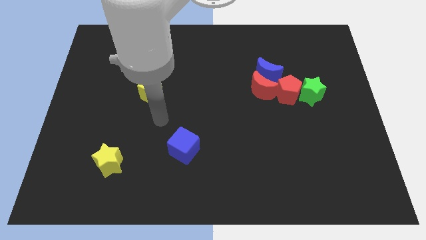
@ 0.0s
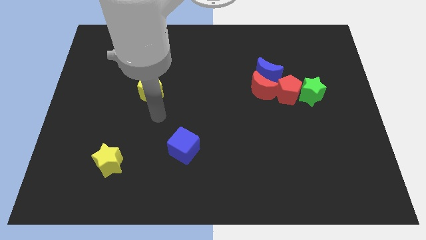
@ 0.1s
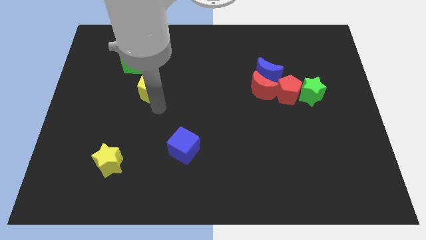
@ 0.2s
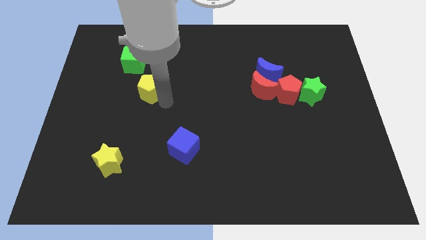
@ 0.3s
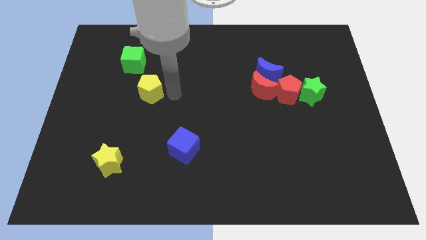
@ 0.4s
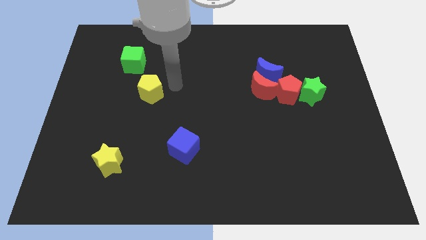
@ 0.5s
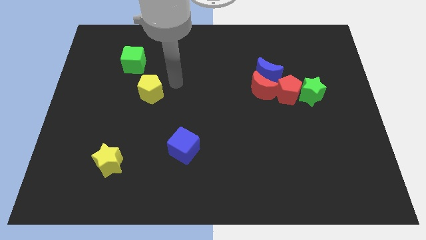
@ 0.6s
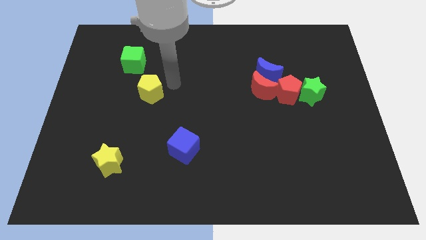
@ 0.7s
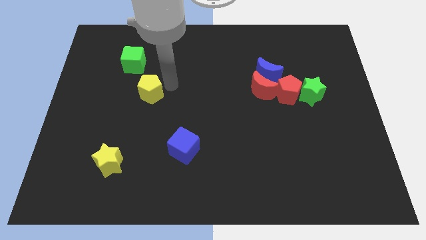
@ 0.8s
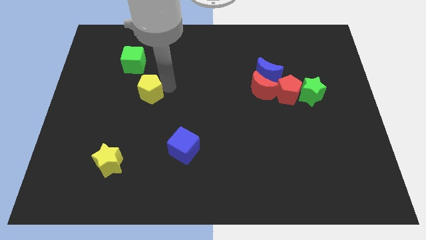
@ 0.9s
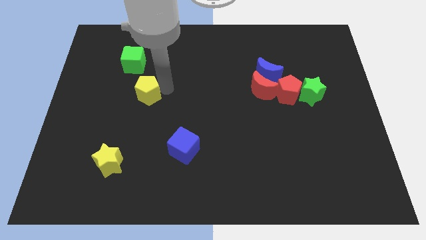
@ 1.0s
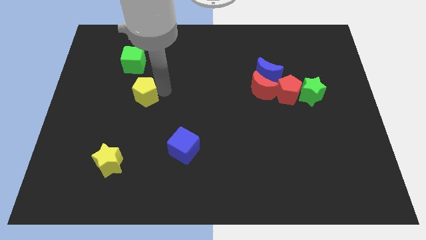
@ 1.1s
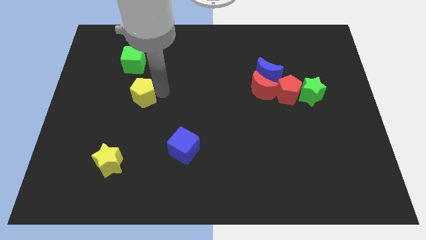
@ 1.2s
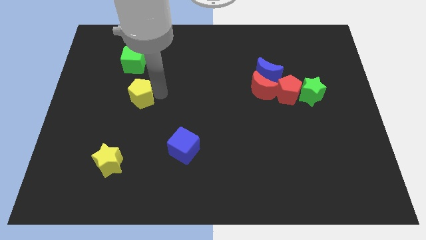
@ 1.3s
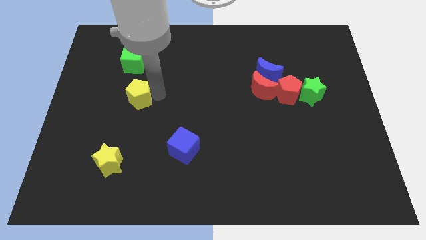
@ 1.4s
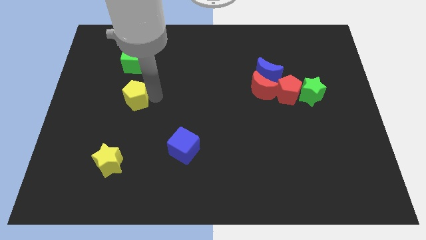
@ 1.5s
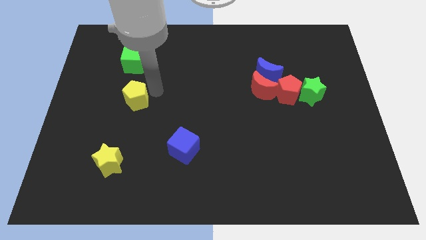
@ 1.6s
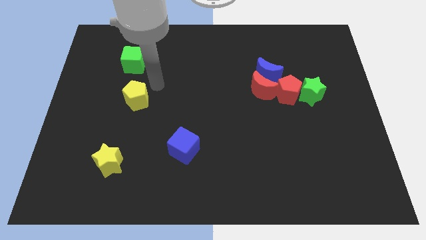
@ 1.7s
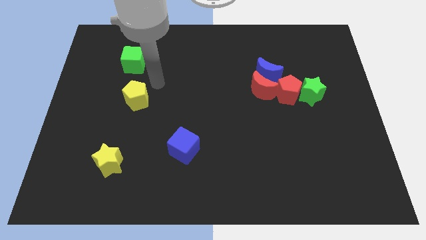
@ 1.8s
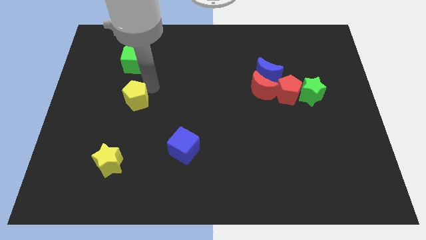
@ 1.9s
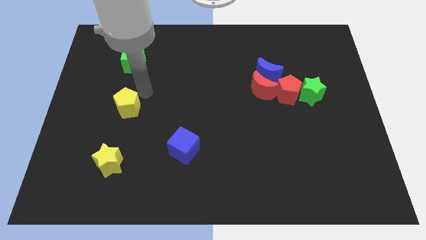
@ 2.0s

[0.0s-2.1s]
push the yellow pentagon a bit downwards and to the left

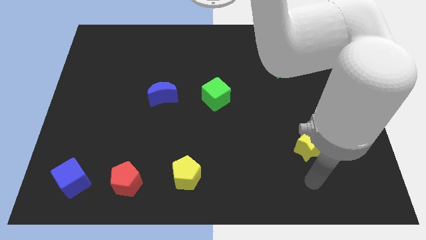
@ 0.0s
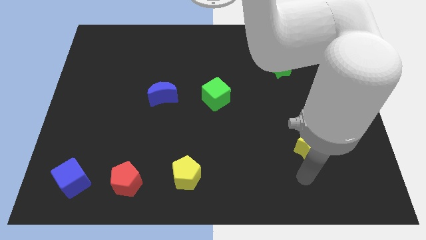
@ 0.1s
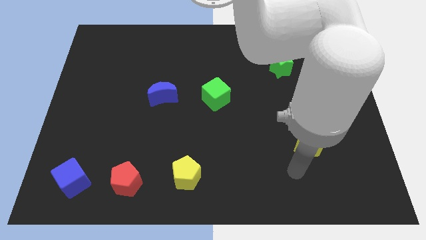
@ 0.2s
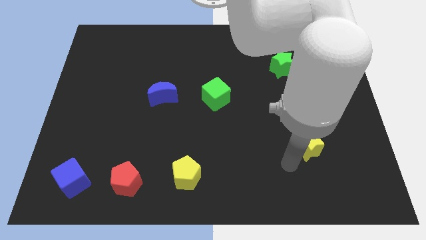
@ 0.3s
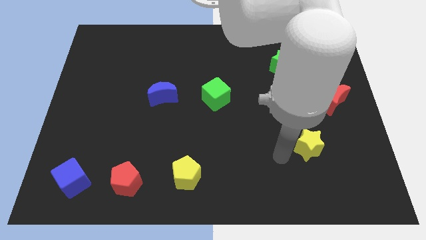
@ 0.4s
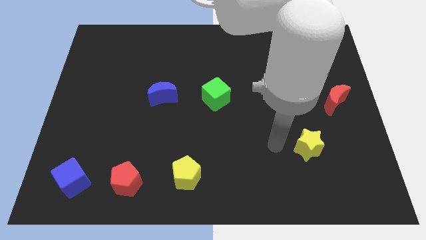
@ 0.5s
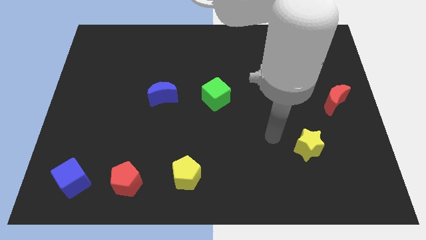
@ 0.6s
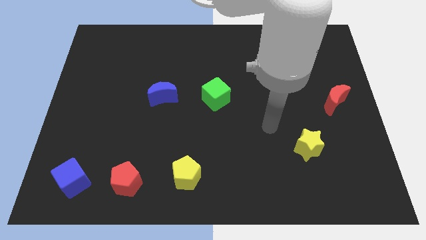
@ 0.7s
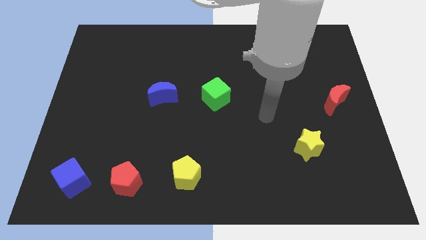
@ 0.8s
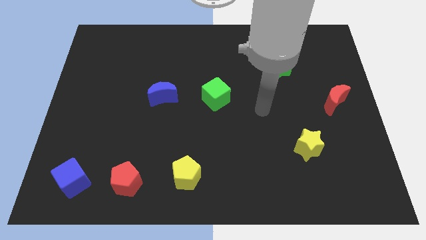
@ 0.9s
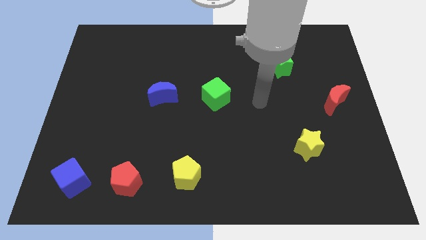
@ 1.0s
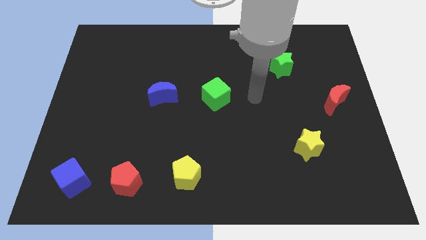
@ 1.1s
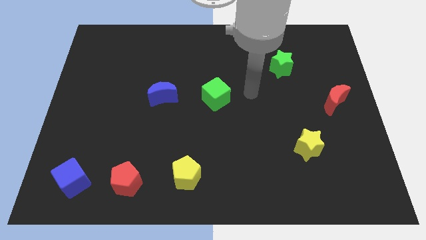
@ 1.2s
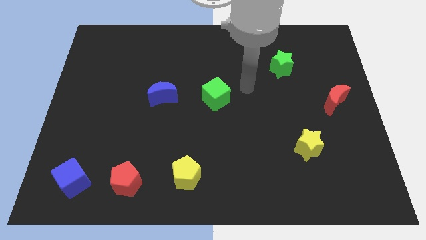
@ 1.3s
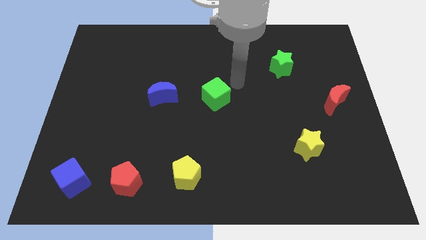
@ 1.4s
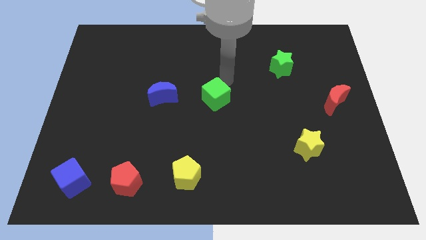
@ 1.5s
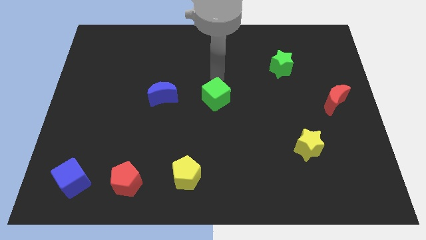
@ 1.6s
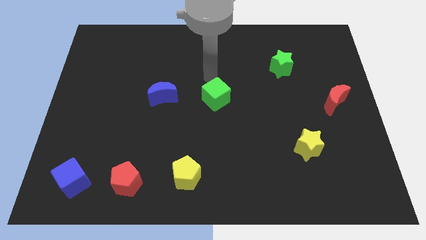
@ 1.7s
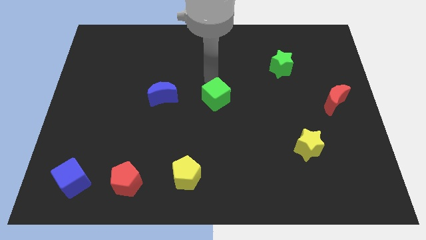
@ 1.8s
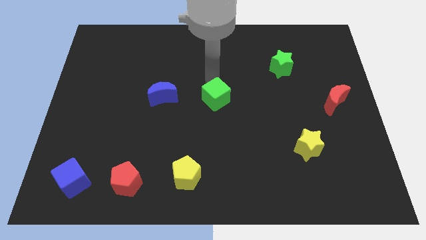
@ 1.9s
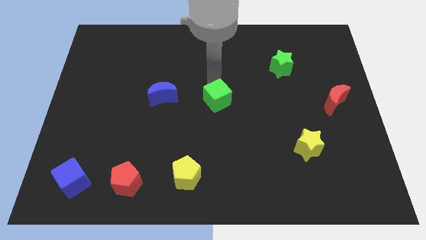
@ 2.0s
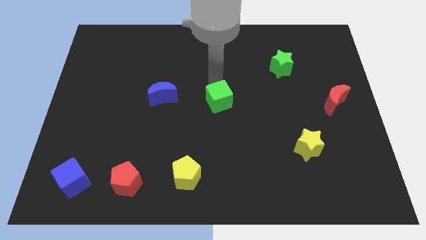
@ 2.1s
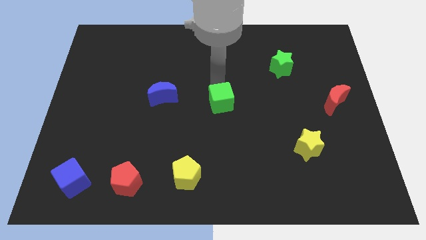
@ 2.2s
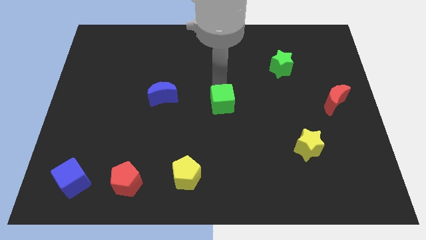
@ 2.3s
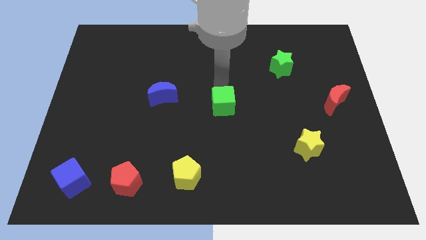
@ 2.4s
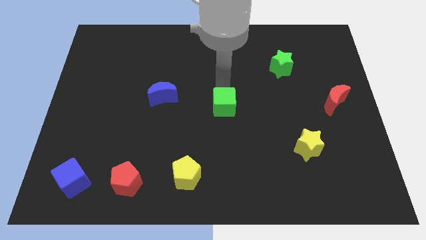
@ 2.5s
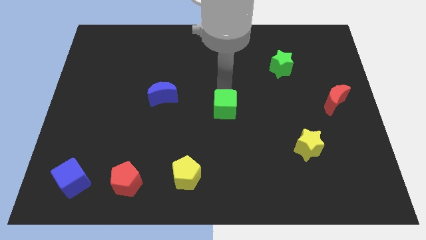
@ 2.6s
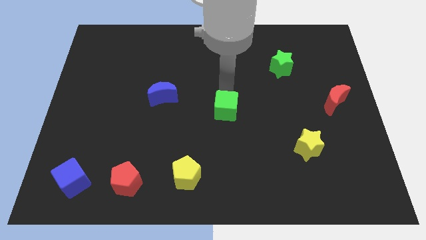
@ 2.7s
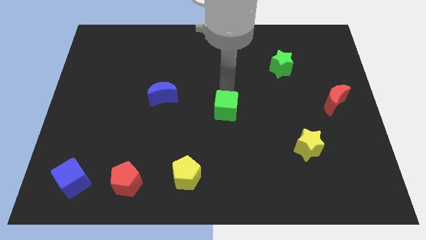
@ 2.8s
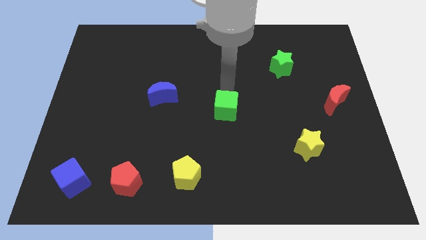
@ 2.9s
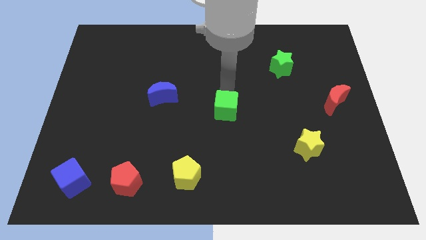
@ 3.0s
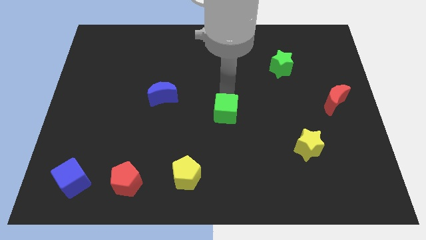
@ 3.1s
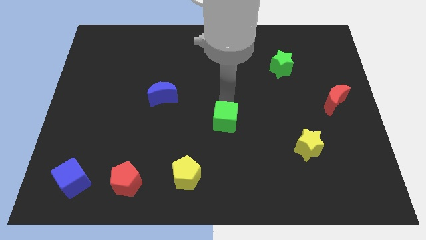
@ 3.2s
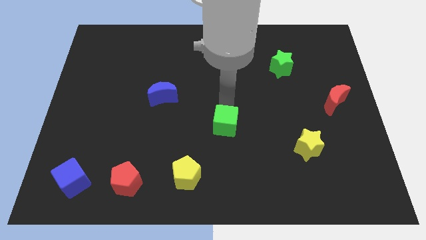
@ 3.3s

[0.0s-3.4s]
push the green cube down slightly

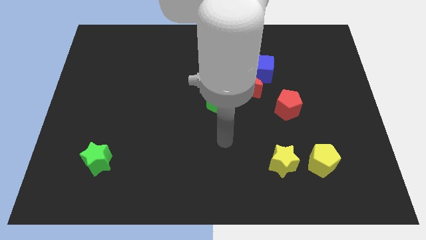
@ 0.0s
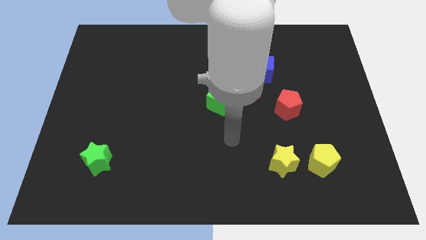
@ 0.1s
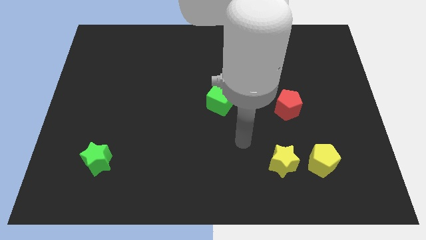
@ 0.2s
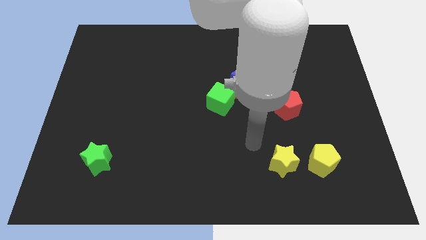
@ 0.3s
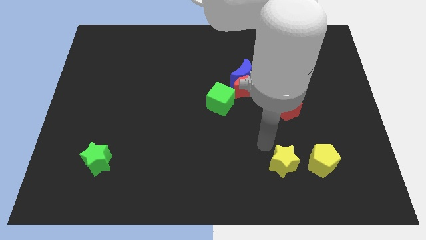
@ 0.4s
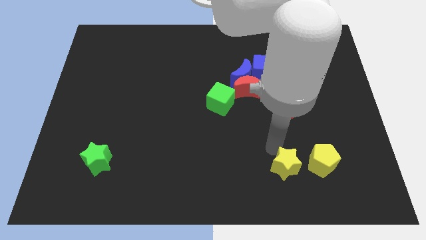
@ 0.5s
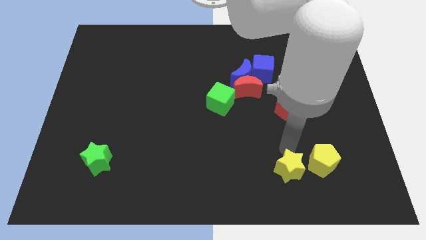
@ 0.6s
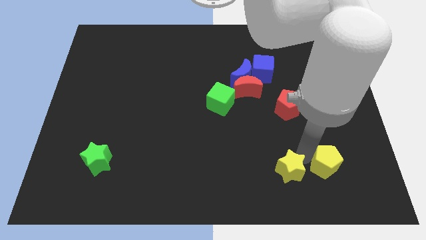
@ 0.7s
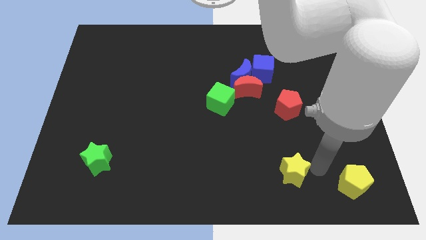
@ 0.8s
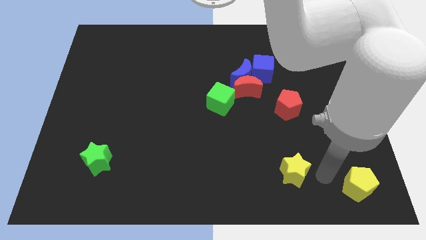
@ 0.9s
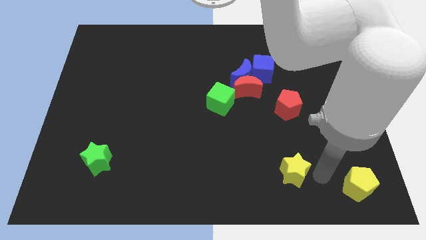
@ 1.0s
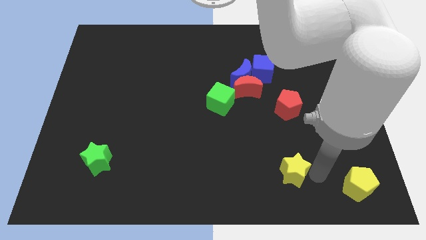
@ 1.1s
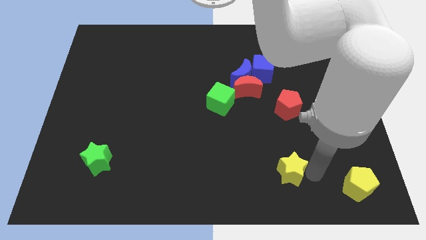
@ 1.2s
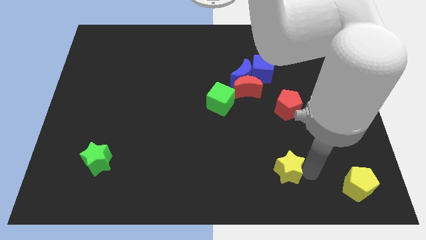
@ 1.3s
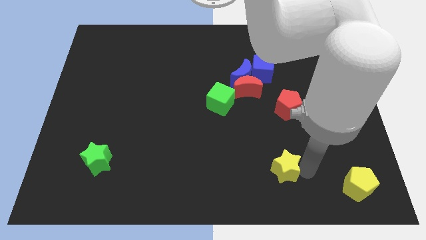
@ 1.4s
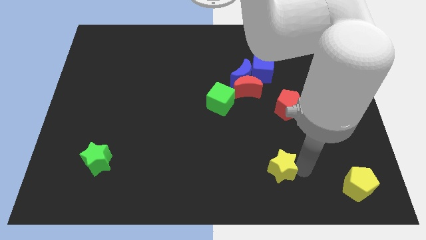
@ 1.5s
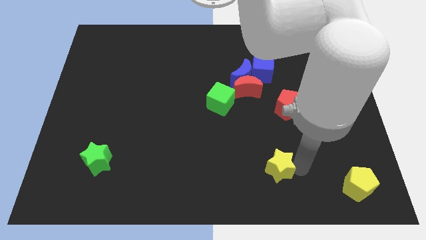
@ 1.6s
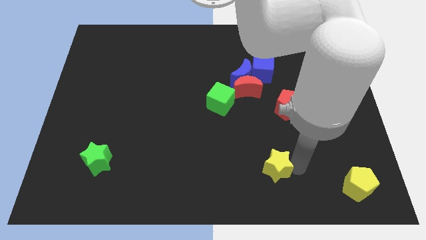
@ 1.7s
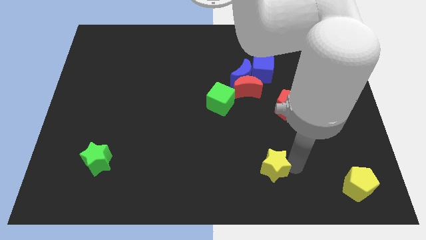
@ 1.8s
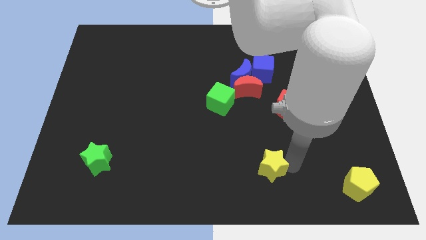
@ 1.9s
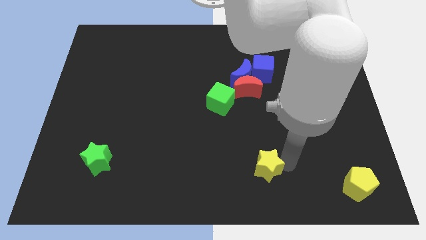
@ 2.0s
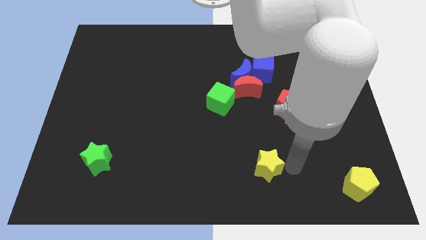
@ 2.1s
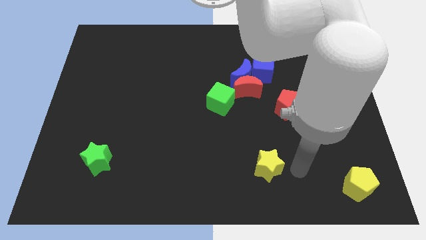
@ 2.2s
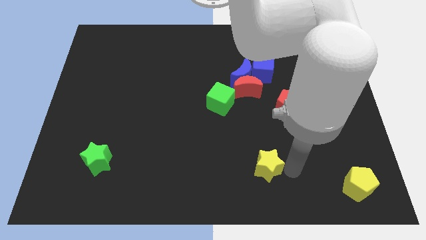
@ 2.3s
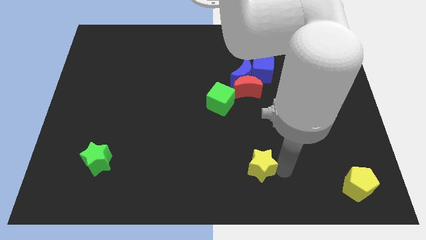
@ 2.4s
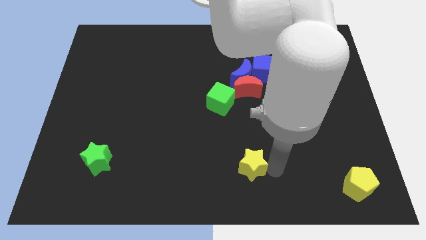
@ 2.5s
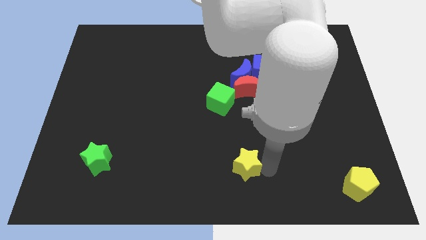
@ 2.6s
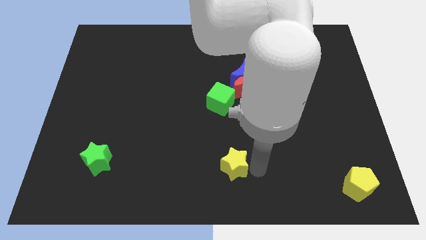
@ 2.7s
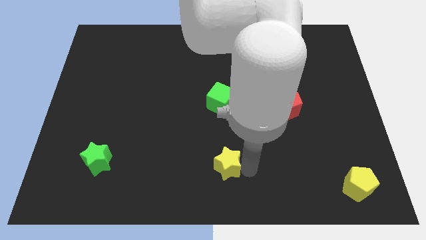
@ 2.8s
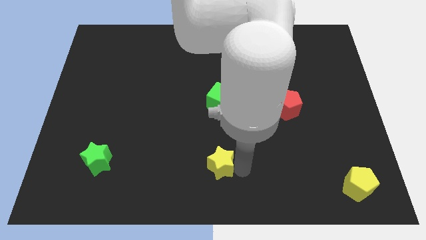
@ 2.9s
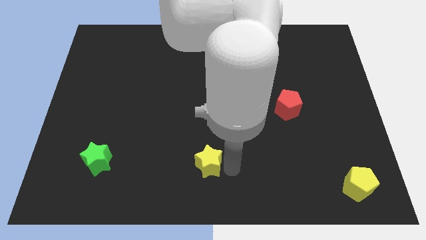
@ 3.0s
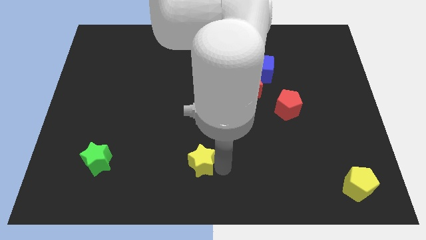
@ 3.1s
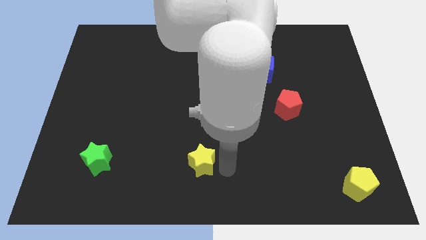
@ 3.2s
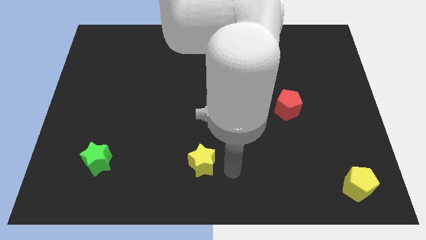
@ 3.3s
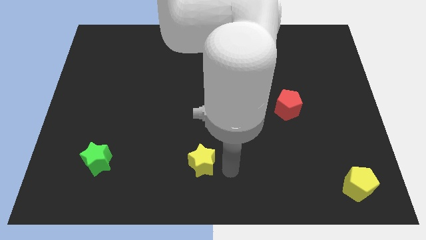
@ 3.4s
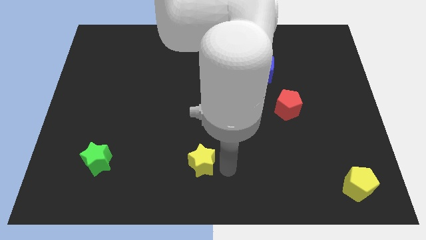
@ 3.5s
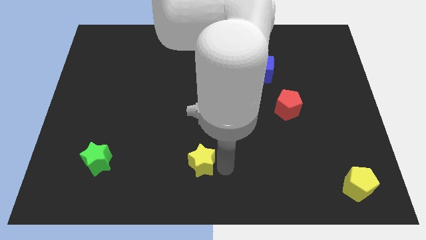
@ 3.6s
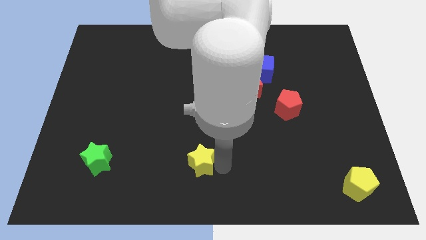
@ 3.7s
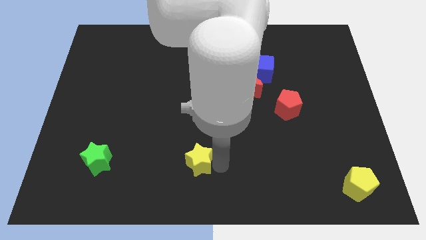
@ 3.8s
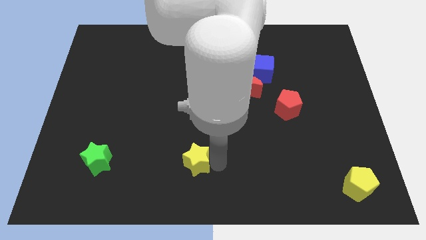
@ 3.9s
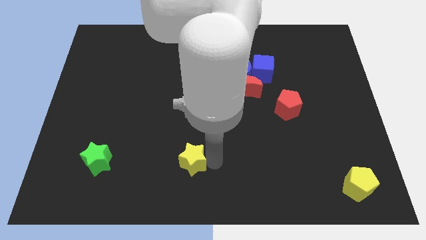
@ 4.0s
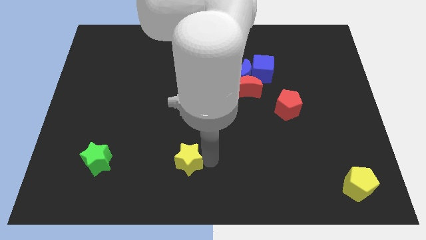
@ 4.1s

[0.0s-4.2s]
move the yellow star left
